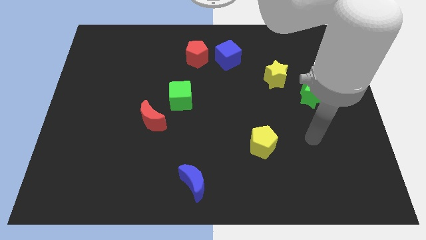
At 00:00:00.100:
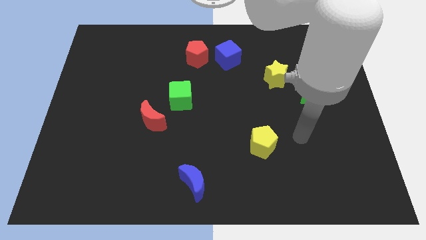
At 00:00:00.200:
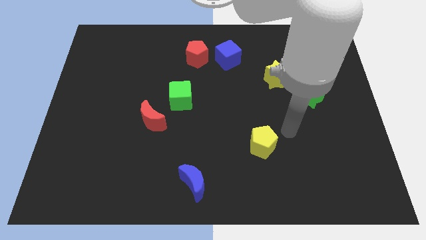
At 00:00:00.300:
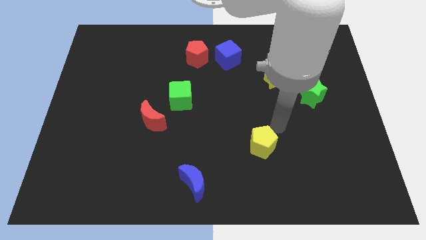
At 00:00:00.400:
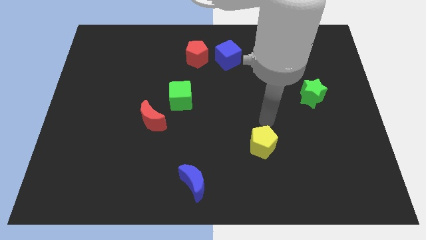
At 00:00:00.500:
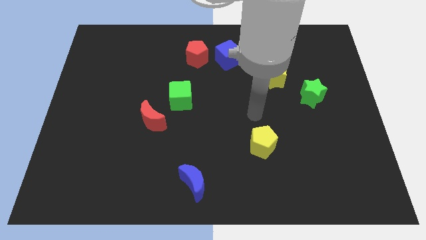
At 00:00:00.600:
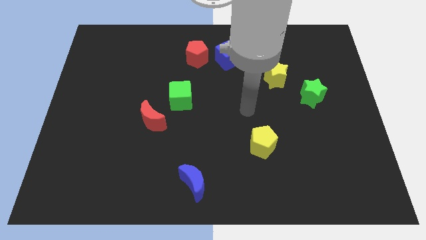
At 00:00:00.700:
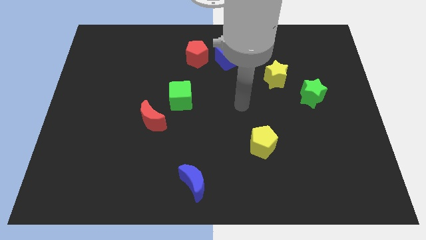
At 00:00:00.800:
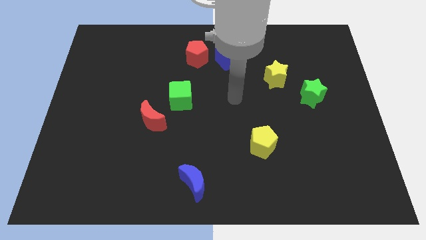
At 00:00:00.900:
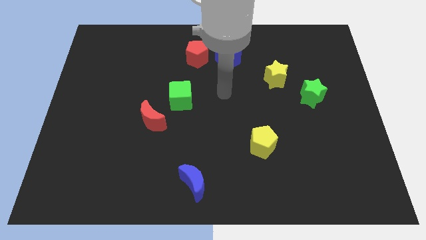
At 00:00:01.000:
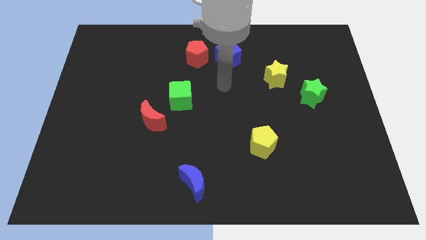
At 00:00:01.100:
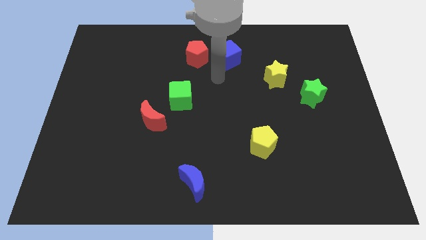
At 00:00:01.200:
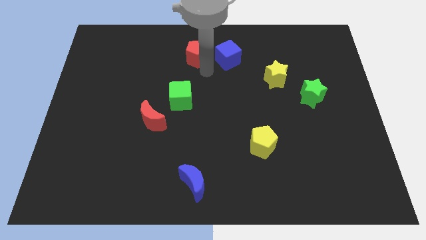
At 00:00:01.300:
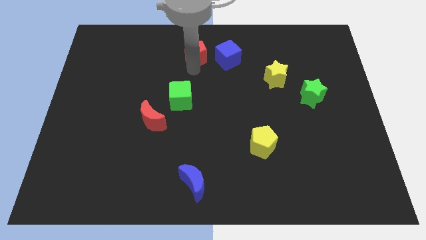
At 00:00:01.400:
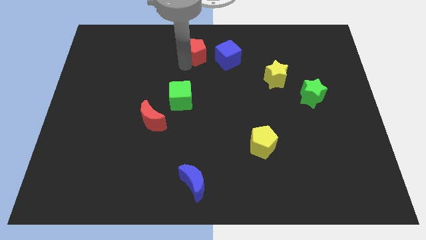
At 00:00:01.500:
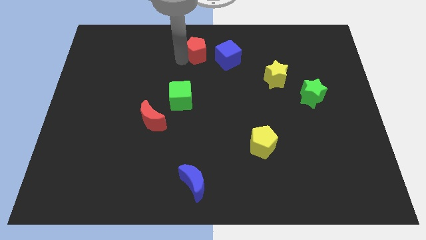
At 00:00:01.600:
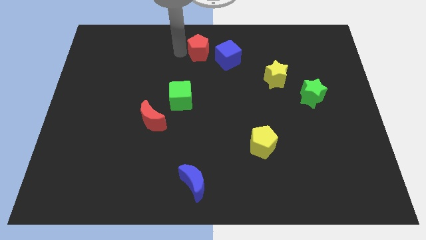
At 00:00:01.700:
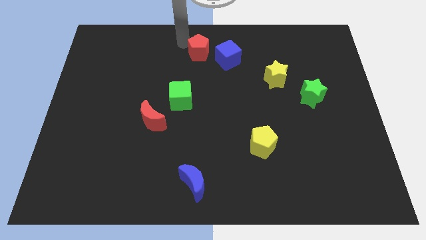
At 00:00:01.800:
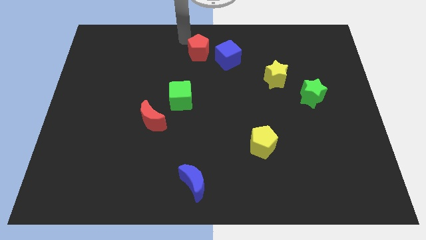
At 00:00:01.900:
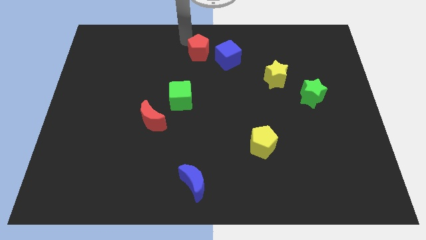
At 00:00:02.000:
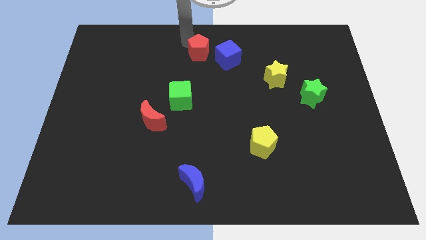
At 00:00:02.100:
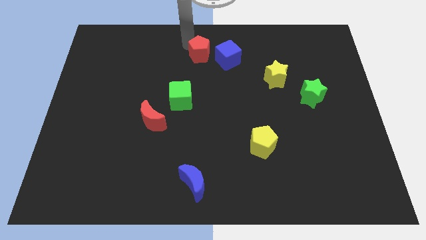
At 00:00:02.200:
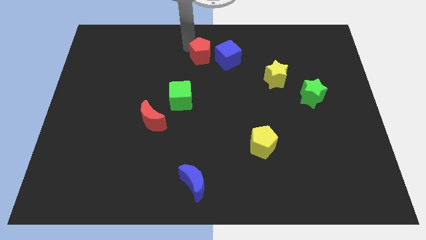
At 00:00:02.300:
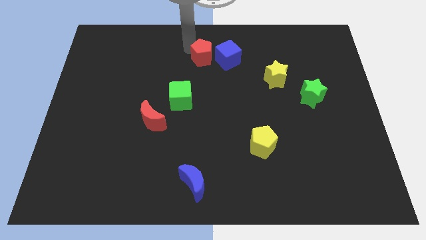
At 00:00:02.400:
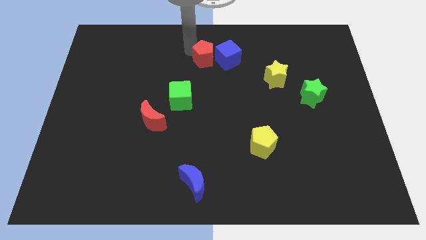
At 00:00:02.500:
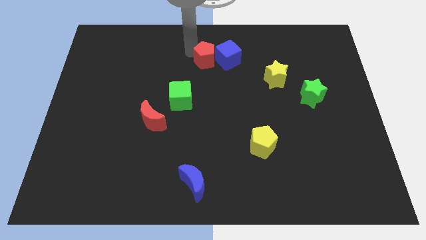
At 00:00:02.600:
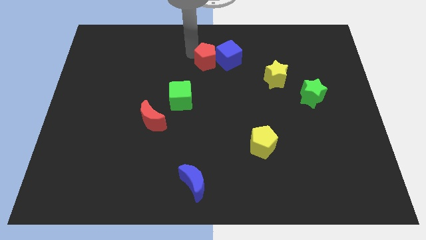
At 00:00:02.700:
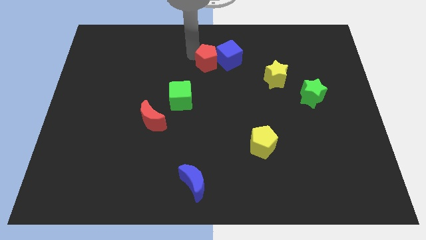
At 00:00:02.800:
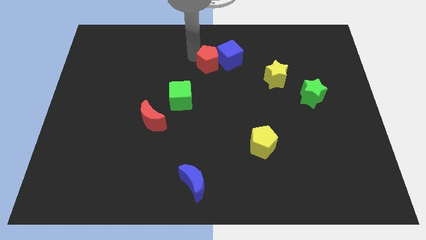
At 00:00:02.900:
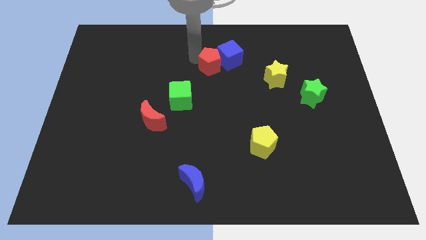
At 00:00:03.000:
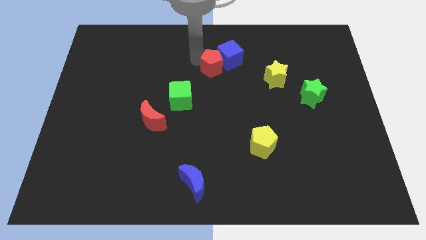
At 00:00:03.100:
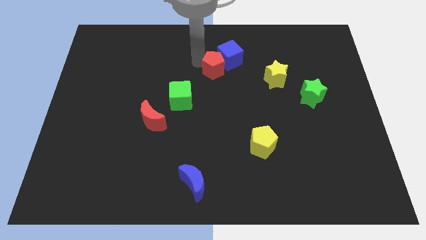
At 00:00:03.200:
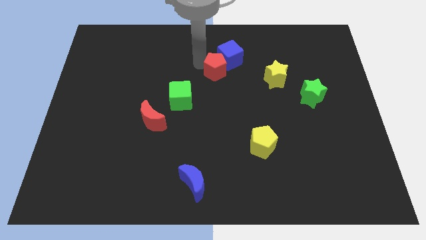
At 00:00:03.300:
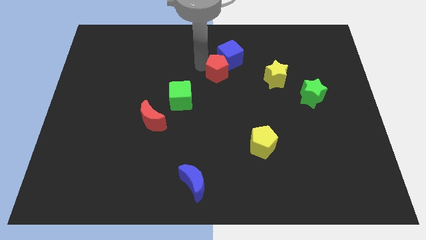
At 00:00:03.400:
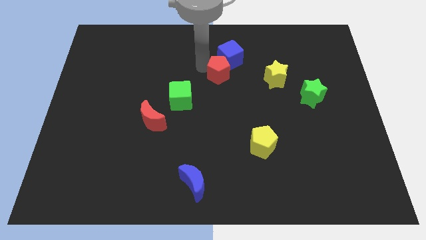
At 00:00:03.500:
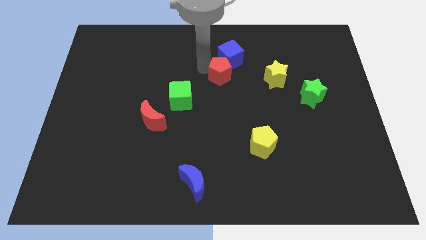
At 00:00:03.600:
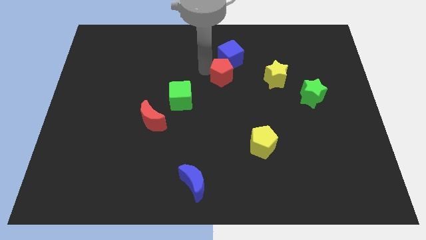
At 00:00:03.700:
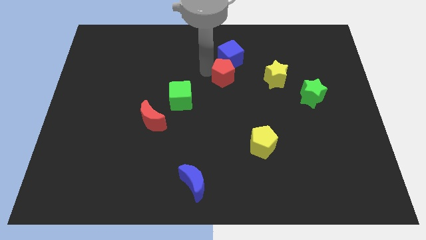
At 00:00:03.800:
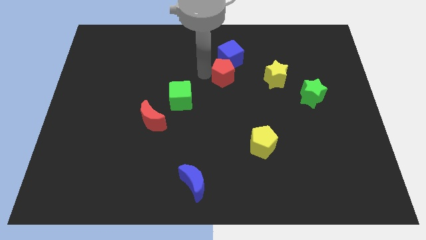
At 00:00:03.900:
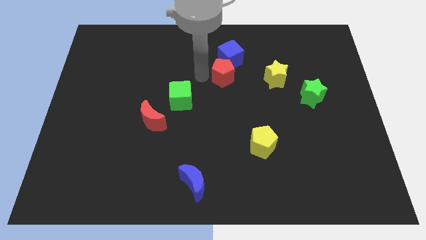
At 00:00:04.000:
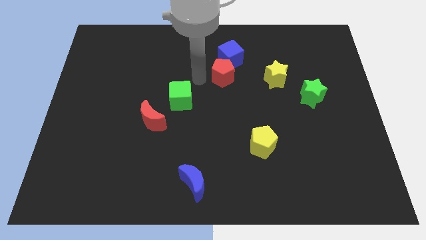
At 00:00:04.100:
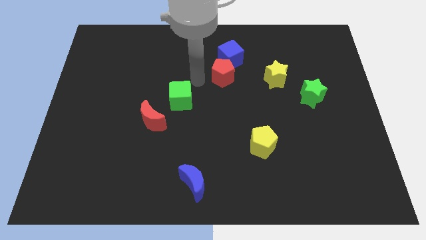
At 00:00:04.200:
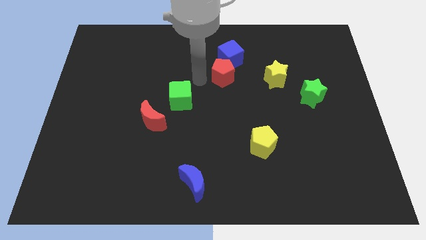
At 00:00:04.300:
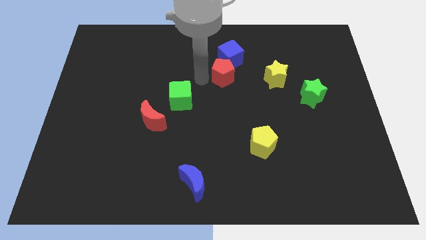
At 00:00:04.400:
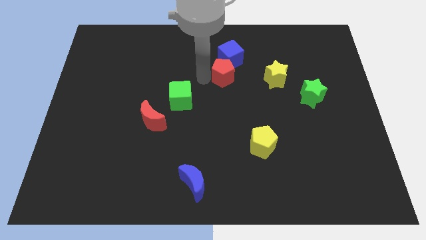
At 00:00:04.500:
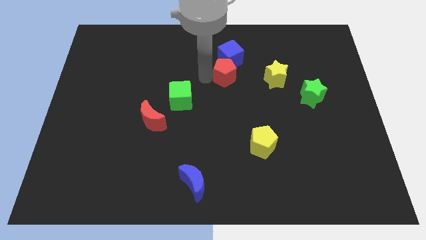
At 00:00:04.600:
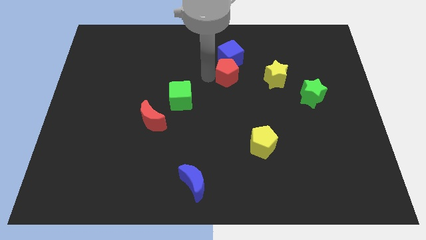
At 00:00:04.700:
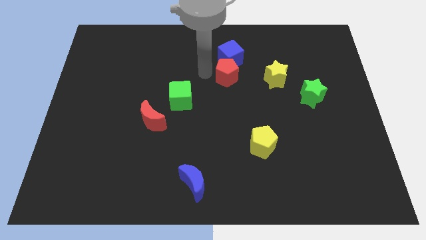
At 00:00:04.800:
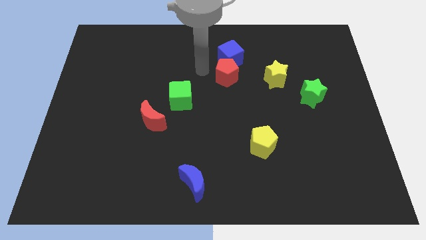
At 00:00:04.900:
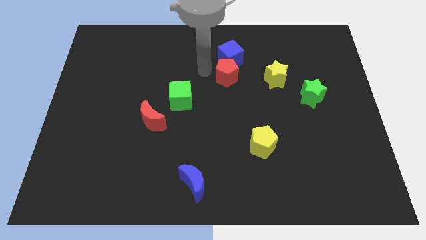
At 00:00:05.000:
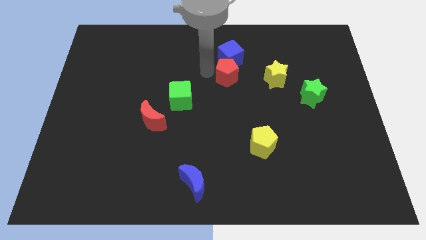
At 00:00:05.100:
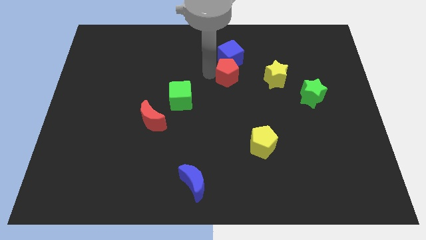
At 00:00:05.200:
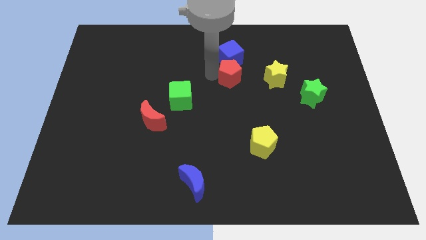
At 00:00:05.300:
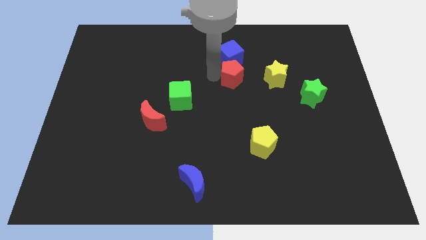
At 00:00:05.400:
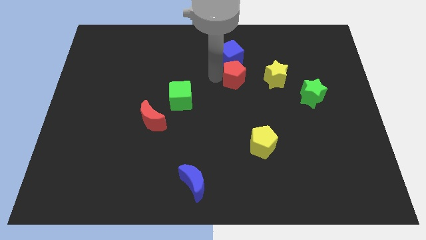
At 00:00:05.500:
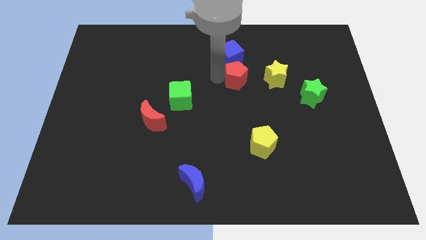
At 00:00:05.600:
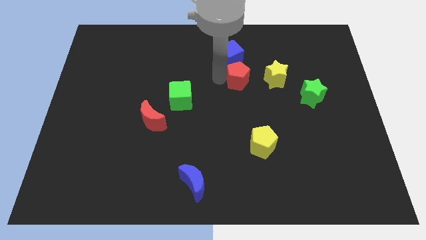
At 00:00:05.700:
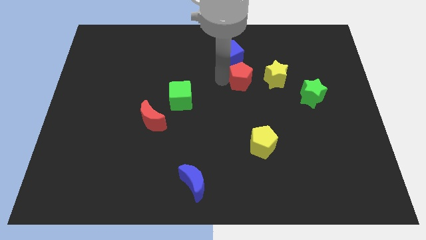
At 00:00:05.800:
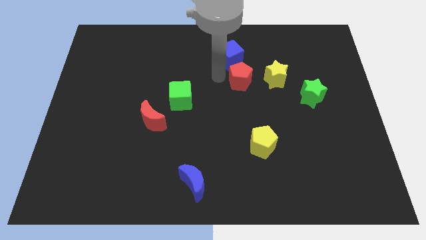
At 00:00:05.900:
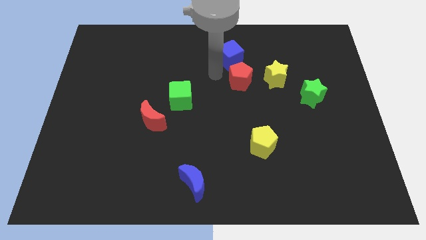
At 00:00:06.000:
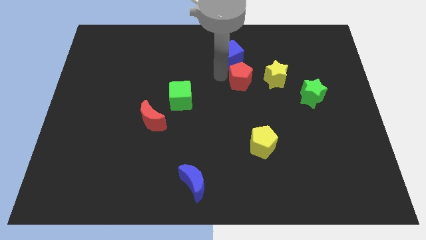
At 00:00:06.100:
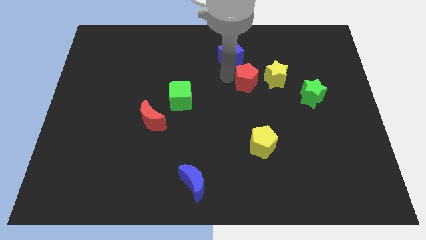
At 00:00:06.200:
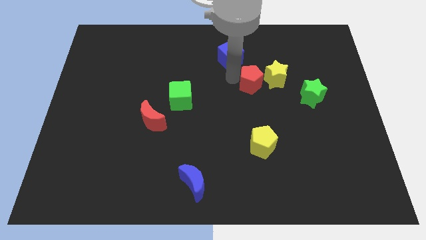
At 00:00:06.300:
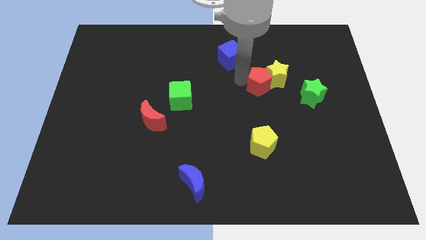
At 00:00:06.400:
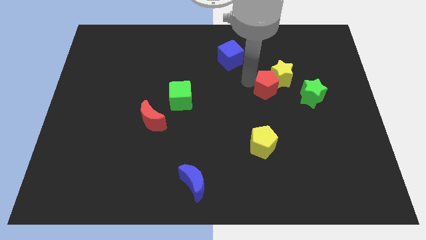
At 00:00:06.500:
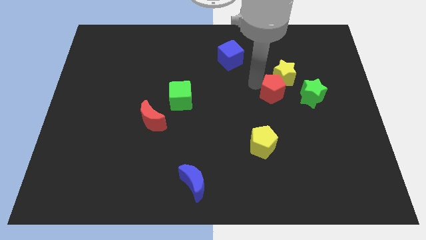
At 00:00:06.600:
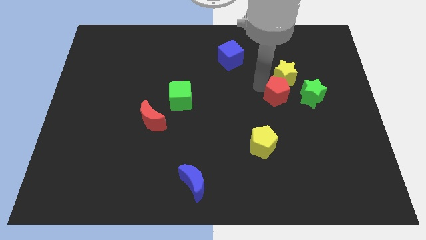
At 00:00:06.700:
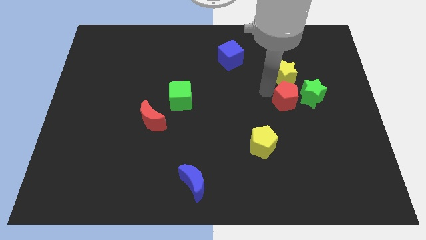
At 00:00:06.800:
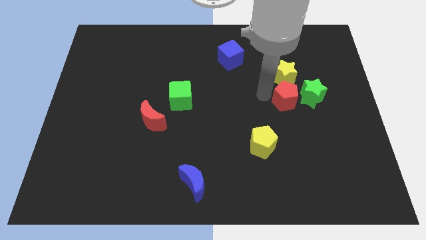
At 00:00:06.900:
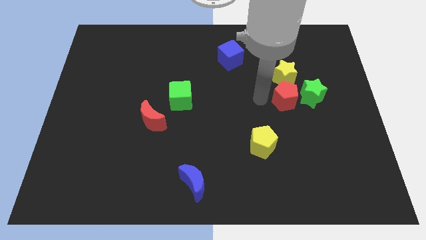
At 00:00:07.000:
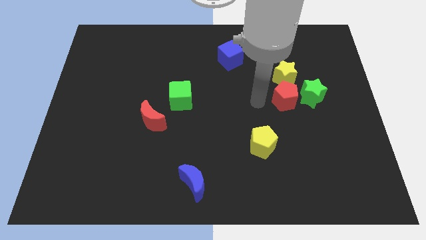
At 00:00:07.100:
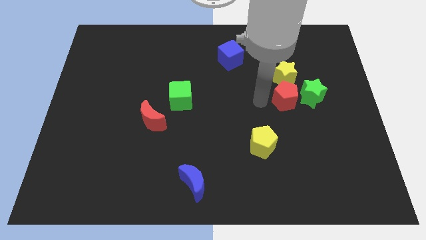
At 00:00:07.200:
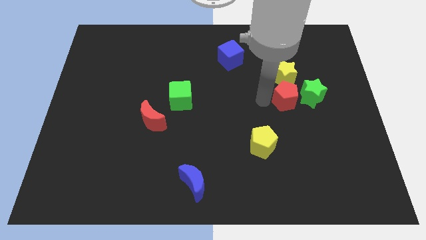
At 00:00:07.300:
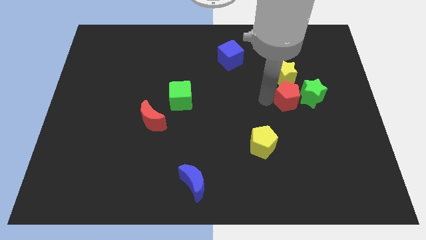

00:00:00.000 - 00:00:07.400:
slide the red pentagon towards the green star
